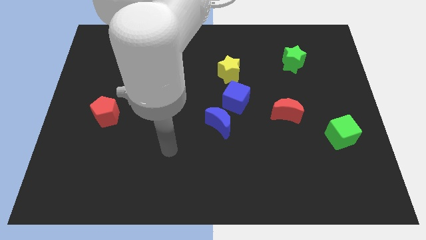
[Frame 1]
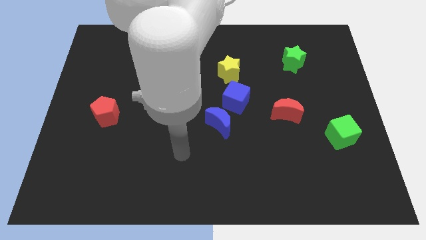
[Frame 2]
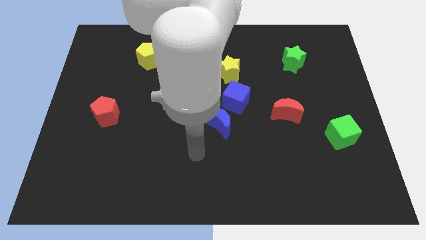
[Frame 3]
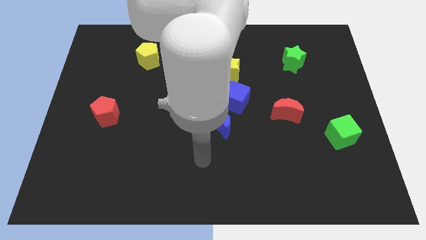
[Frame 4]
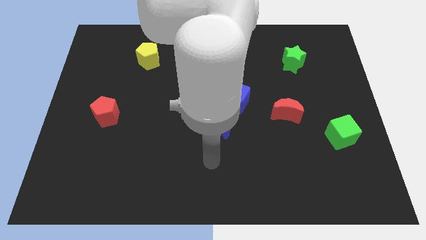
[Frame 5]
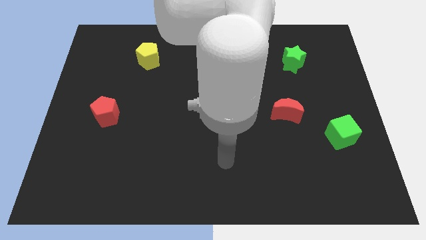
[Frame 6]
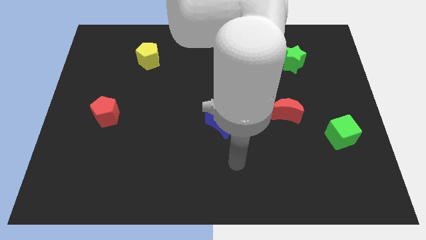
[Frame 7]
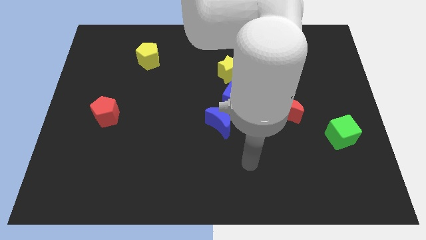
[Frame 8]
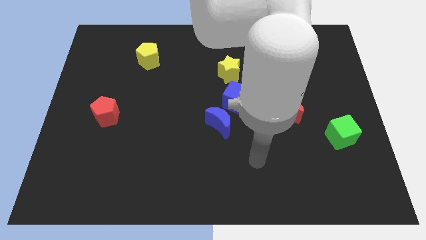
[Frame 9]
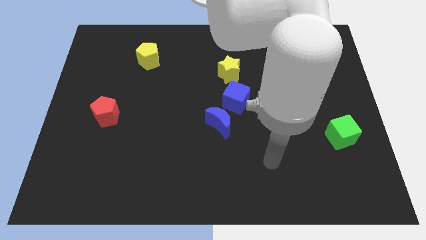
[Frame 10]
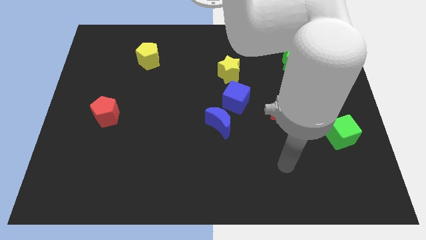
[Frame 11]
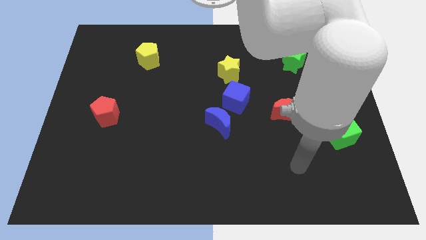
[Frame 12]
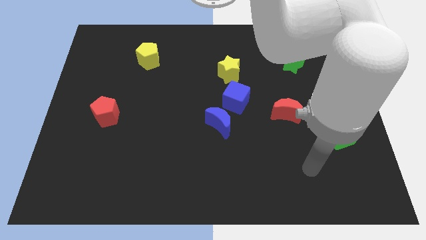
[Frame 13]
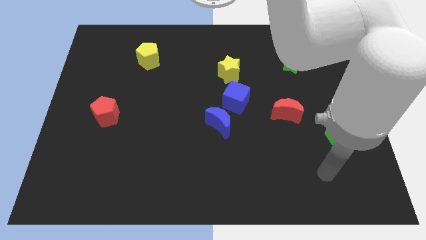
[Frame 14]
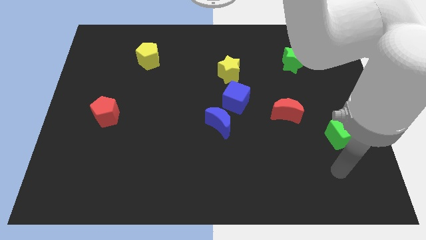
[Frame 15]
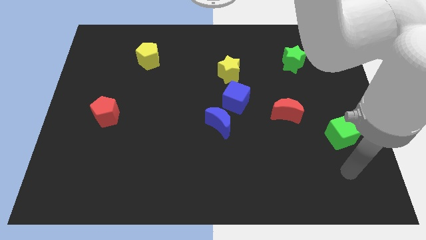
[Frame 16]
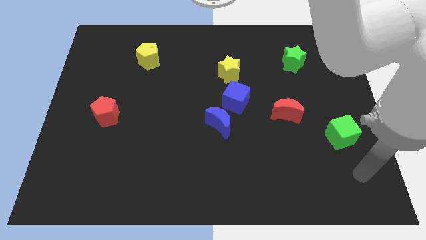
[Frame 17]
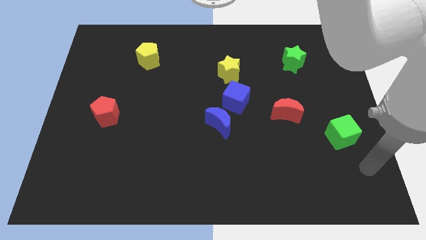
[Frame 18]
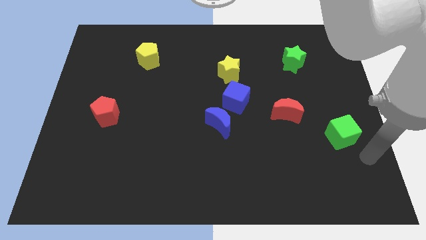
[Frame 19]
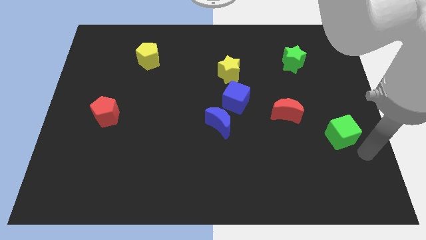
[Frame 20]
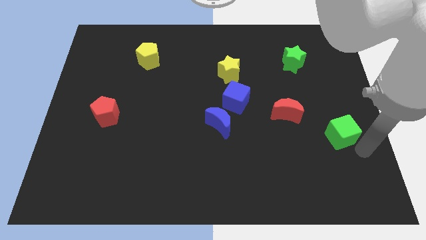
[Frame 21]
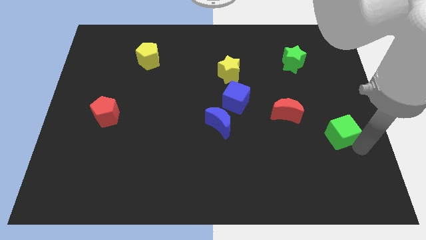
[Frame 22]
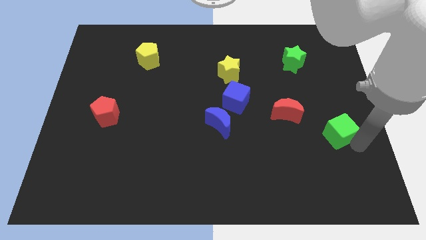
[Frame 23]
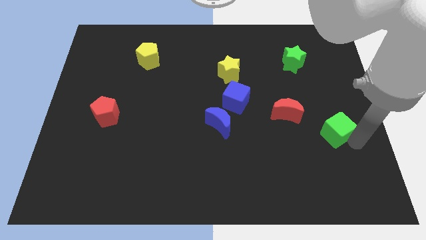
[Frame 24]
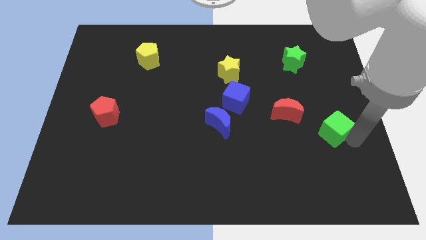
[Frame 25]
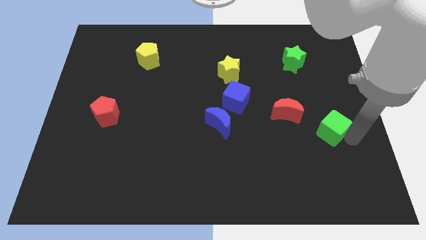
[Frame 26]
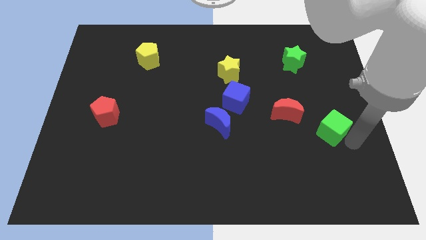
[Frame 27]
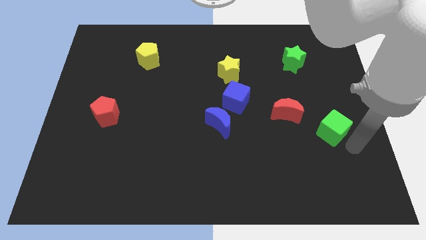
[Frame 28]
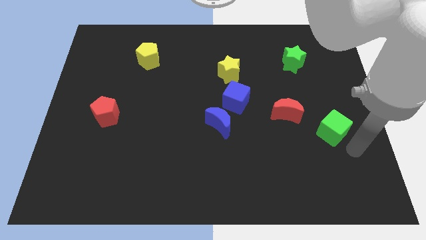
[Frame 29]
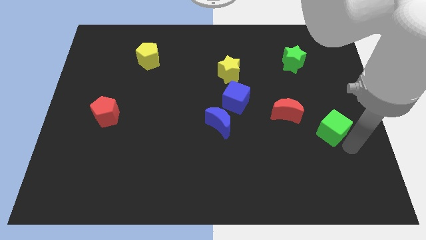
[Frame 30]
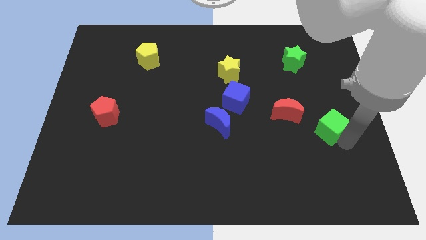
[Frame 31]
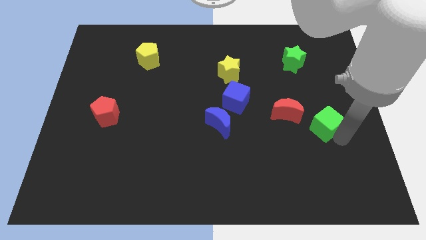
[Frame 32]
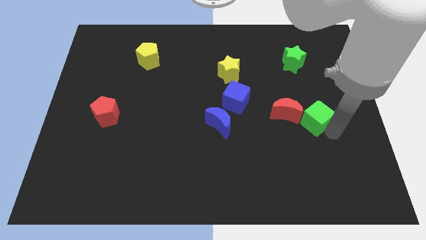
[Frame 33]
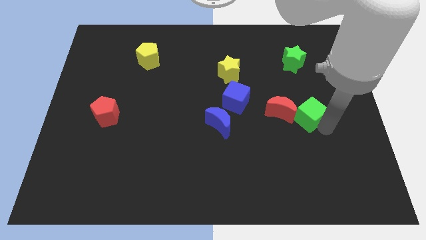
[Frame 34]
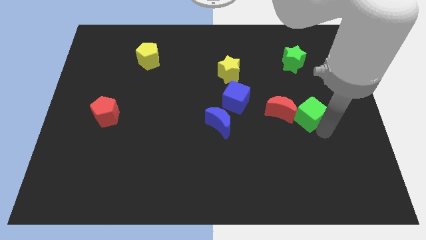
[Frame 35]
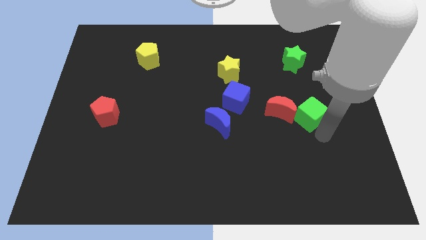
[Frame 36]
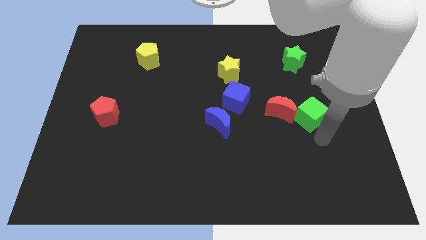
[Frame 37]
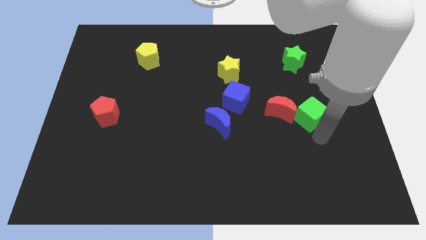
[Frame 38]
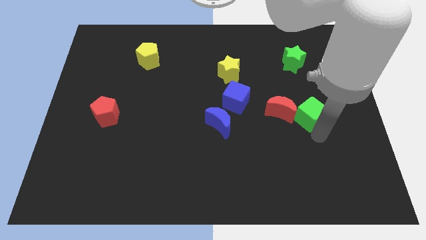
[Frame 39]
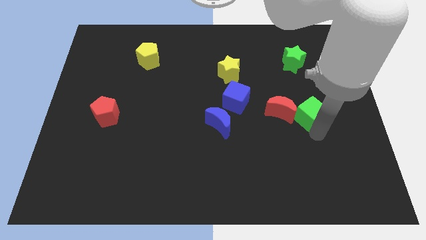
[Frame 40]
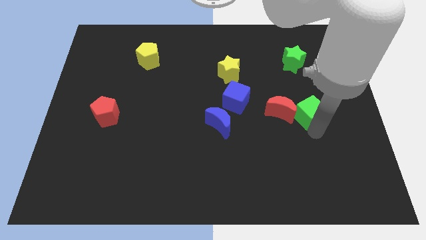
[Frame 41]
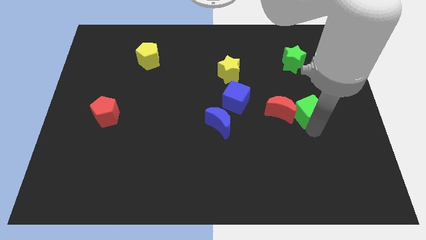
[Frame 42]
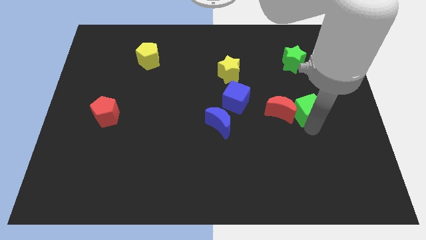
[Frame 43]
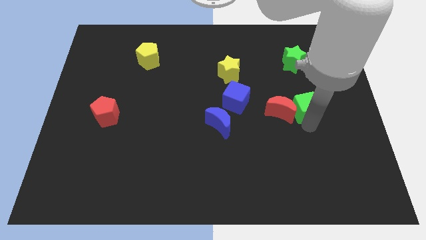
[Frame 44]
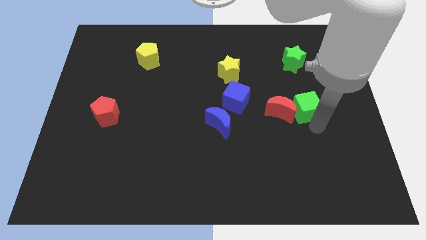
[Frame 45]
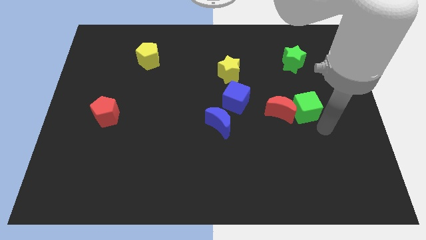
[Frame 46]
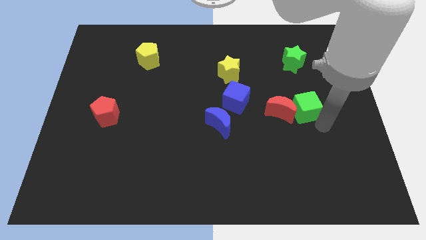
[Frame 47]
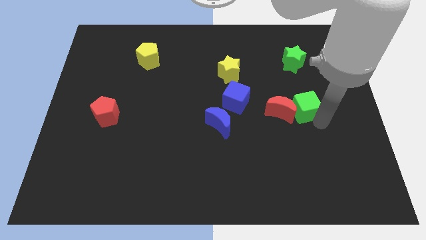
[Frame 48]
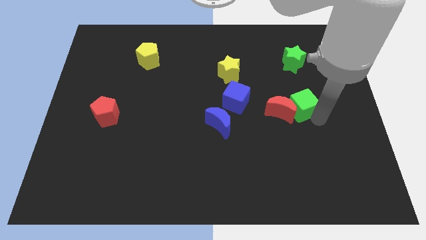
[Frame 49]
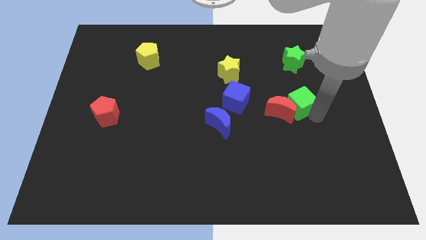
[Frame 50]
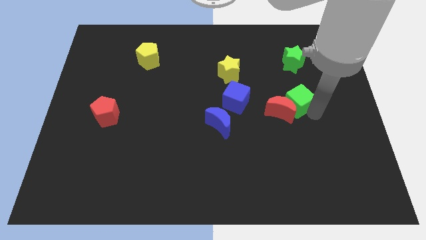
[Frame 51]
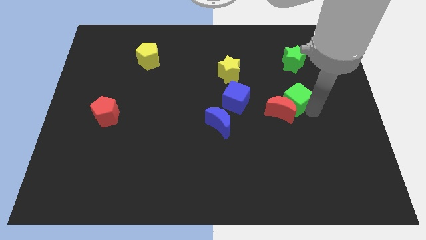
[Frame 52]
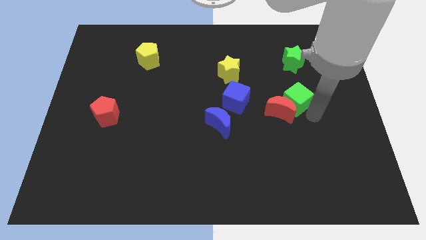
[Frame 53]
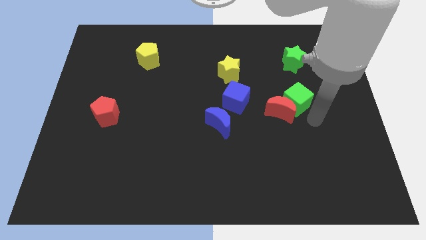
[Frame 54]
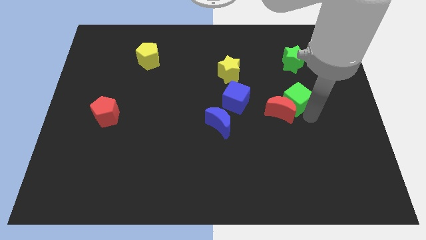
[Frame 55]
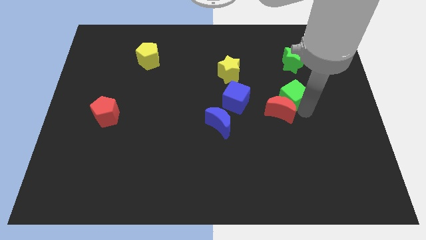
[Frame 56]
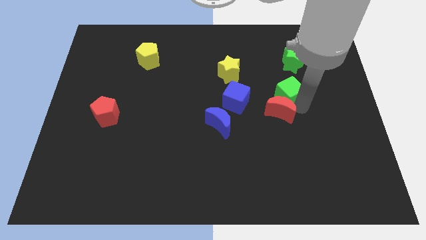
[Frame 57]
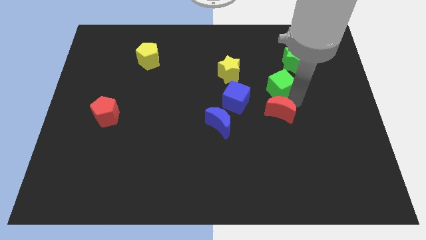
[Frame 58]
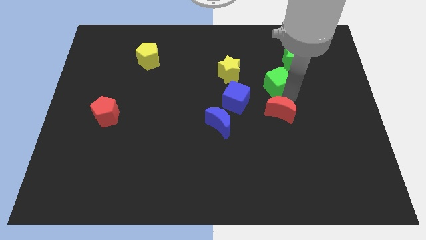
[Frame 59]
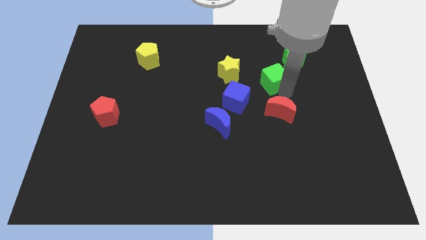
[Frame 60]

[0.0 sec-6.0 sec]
move the green cube upwards and left

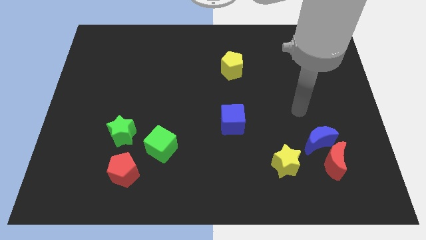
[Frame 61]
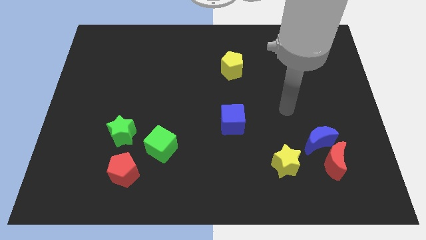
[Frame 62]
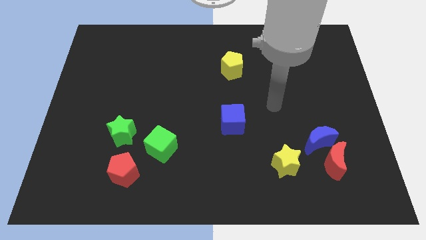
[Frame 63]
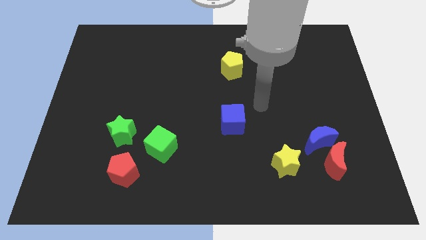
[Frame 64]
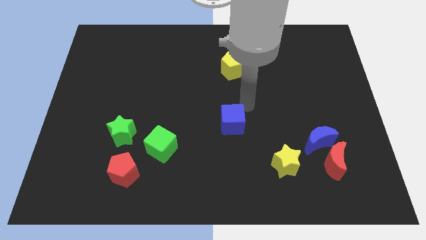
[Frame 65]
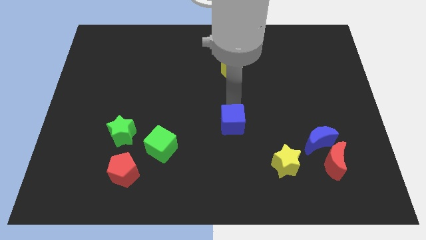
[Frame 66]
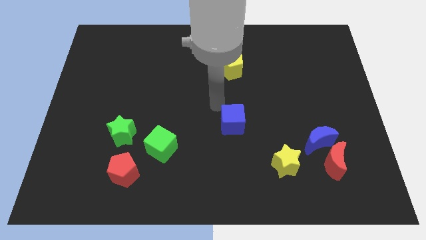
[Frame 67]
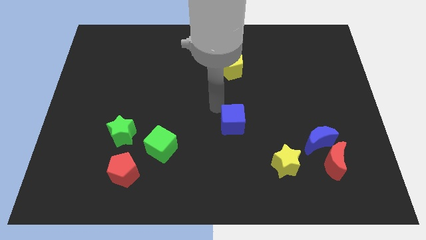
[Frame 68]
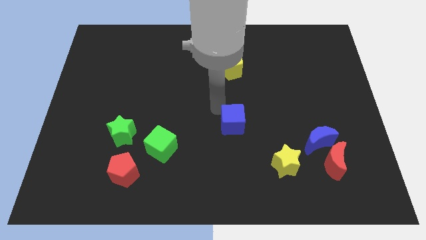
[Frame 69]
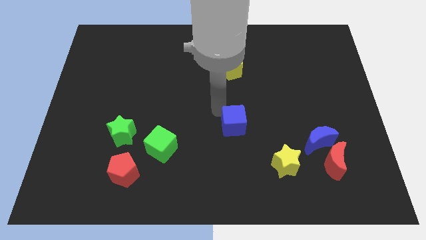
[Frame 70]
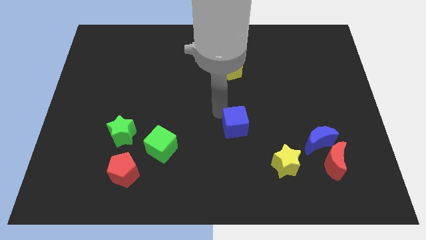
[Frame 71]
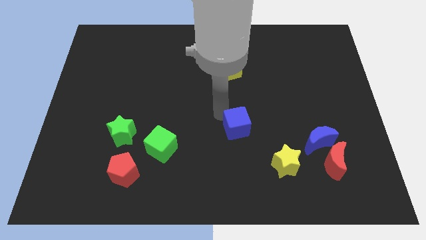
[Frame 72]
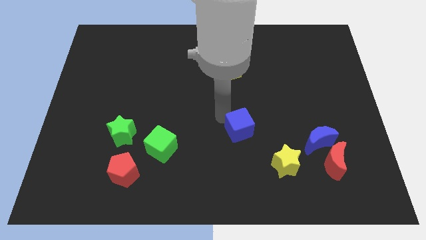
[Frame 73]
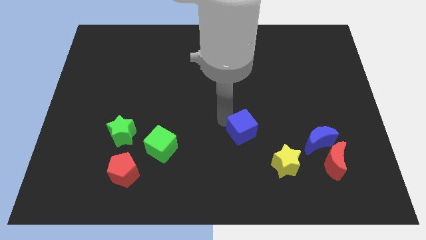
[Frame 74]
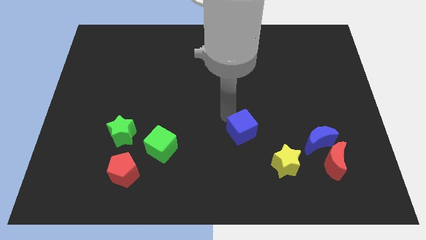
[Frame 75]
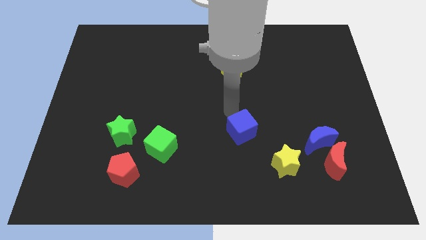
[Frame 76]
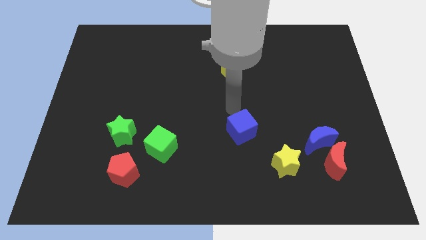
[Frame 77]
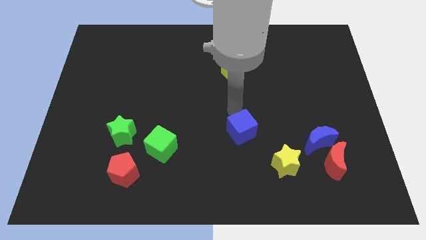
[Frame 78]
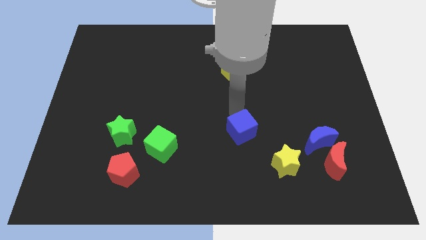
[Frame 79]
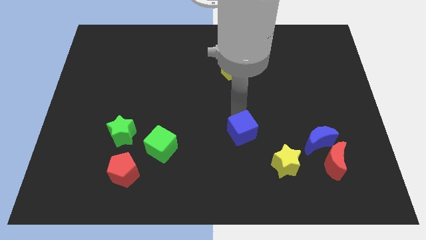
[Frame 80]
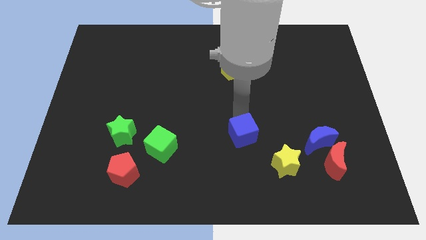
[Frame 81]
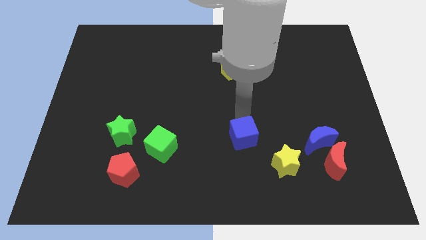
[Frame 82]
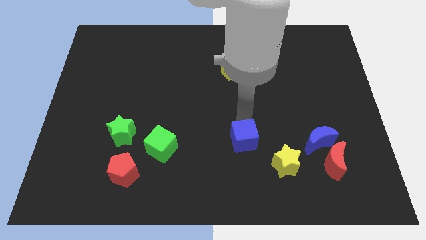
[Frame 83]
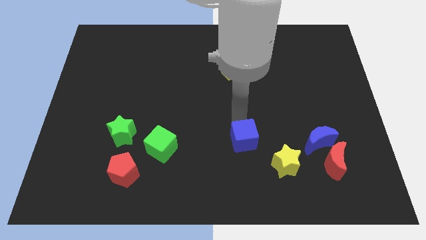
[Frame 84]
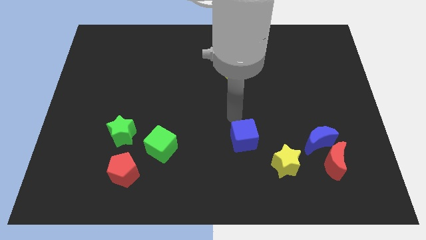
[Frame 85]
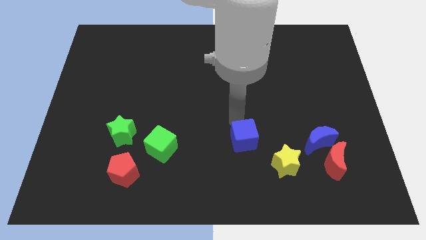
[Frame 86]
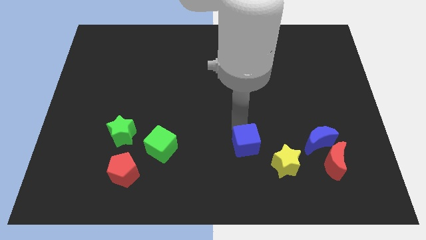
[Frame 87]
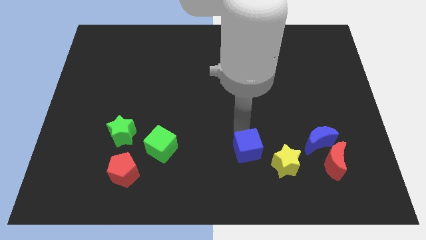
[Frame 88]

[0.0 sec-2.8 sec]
slide the blue cube a little downwards and right
